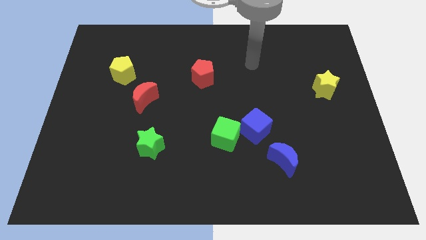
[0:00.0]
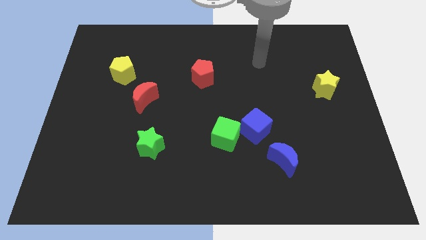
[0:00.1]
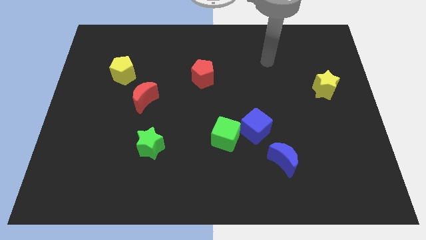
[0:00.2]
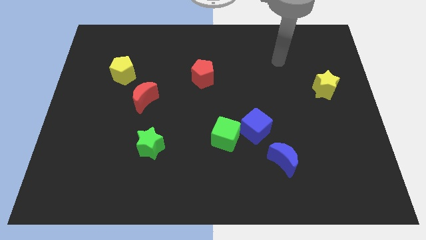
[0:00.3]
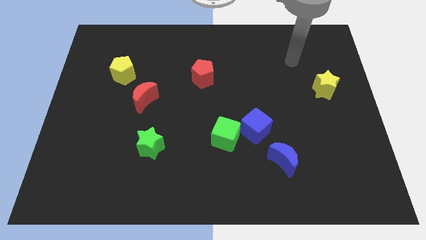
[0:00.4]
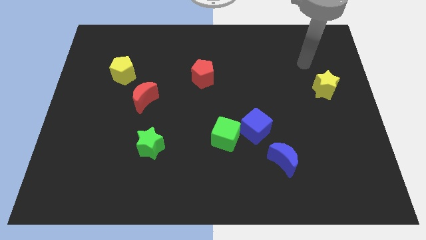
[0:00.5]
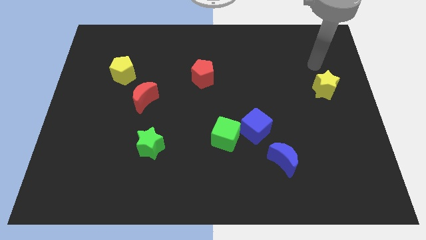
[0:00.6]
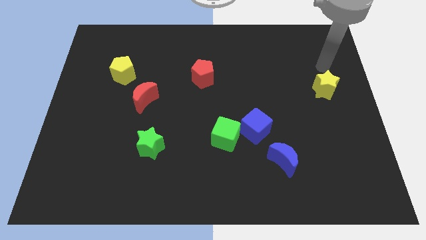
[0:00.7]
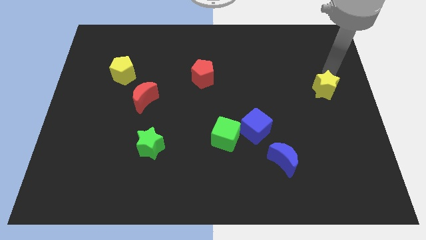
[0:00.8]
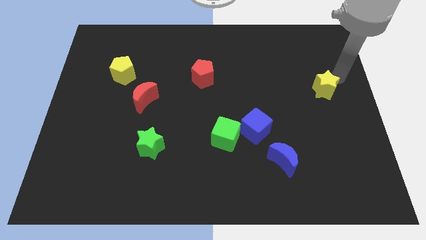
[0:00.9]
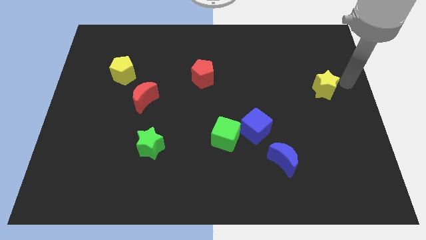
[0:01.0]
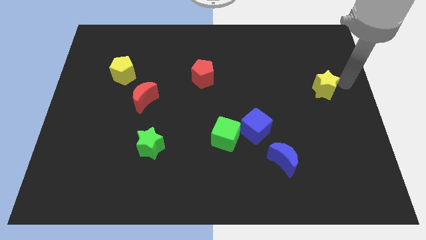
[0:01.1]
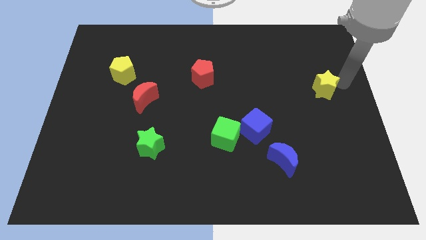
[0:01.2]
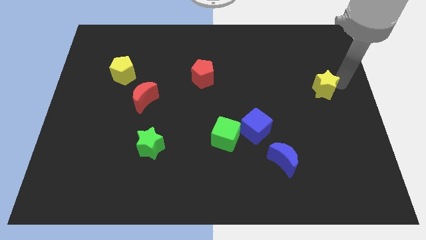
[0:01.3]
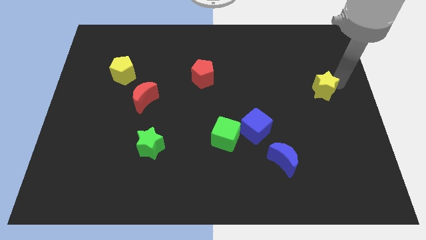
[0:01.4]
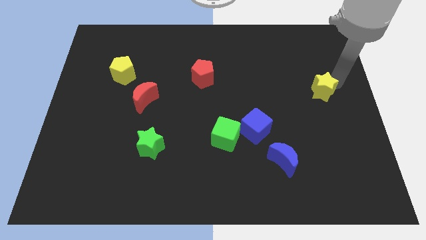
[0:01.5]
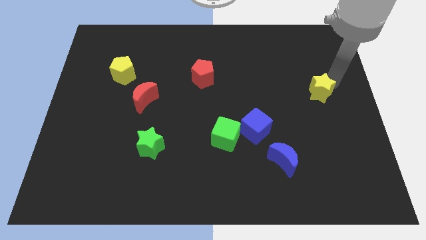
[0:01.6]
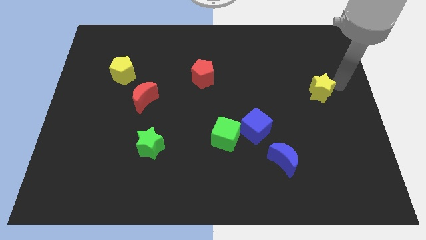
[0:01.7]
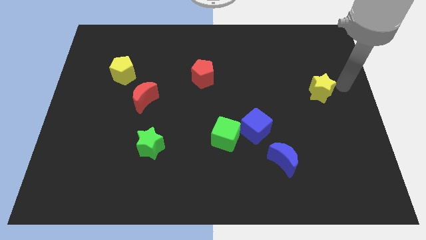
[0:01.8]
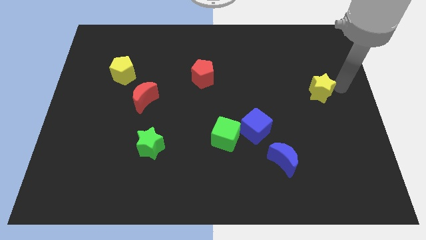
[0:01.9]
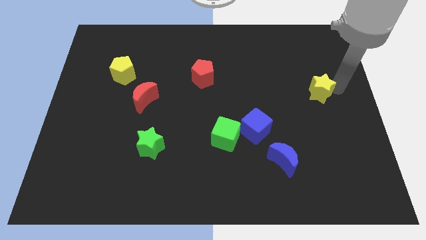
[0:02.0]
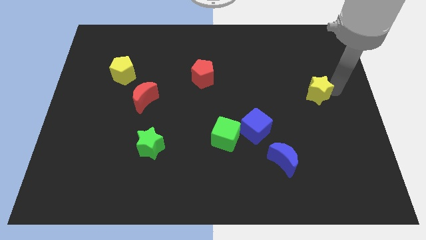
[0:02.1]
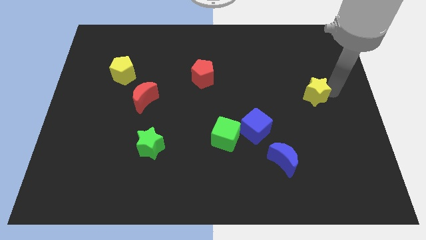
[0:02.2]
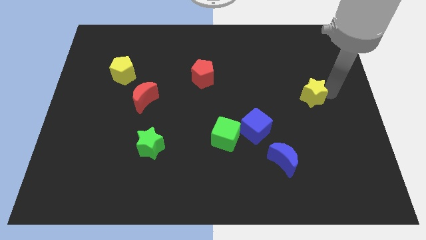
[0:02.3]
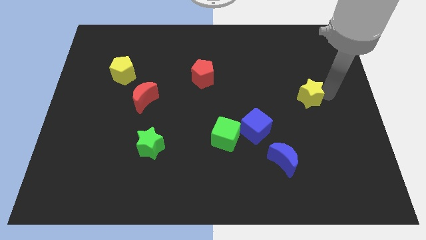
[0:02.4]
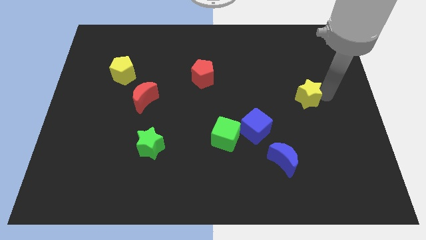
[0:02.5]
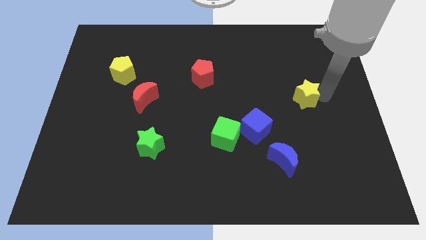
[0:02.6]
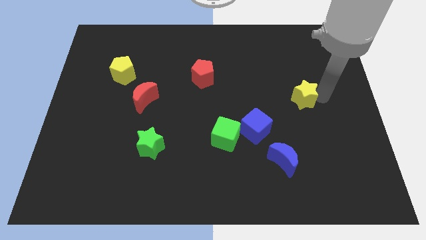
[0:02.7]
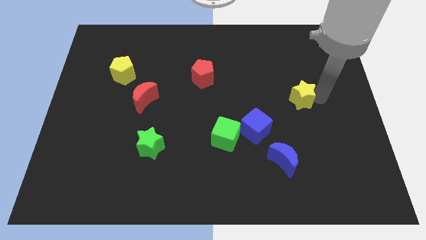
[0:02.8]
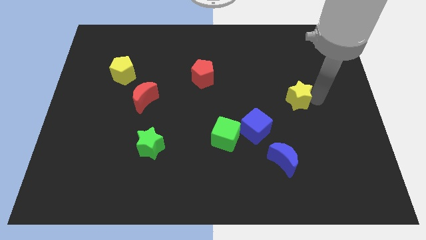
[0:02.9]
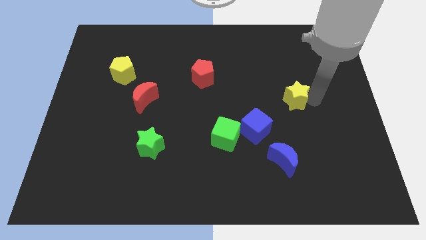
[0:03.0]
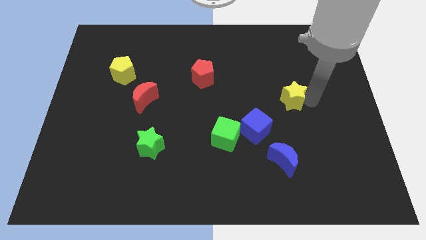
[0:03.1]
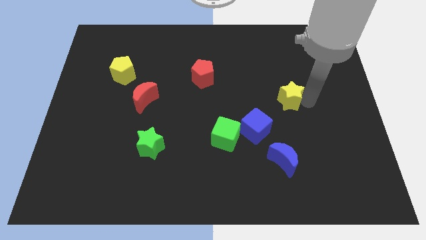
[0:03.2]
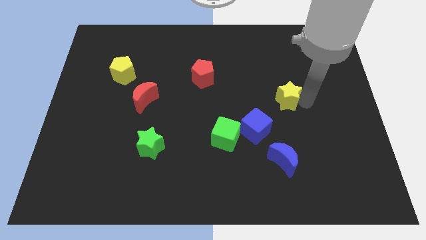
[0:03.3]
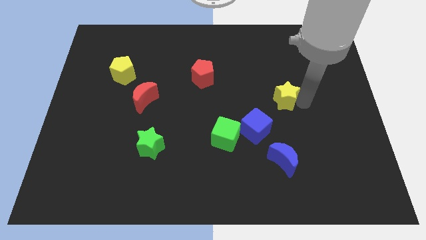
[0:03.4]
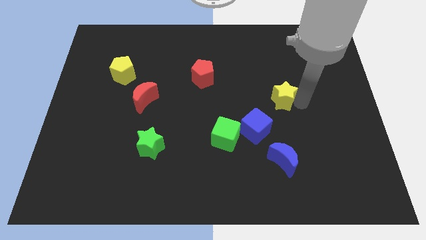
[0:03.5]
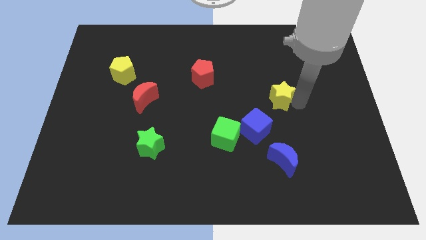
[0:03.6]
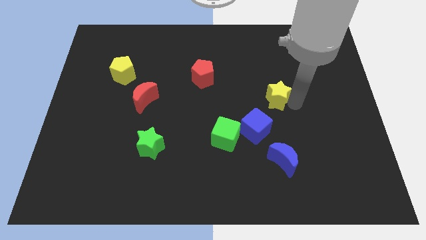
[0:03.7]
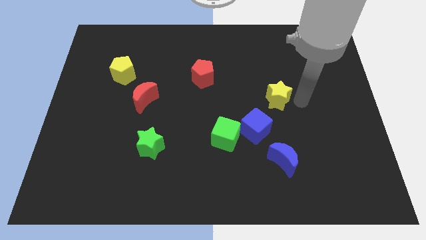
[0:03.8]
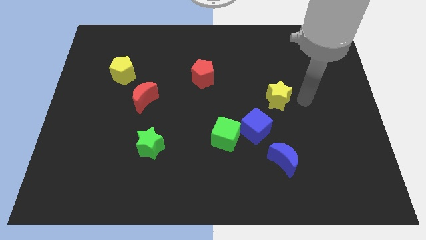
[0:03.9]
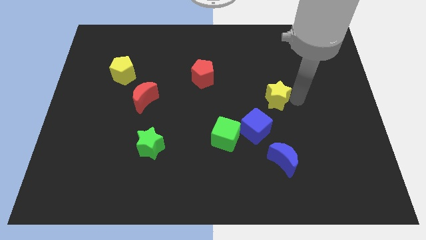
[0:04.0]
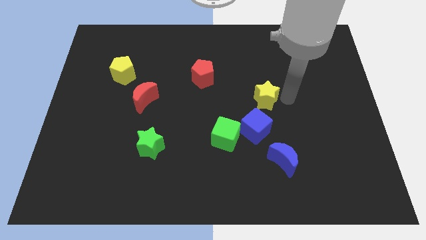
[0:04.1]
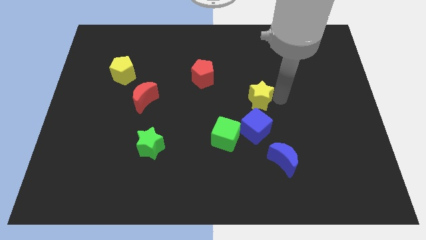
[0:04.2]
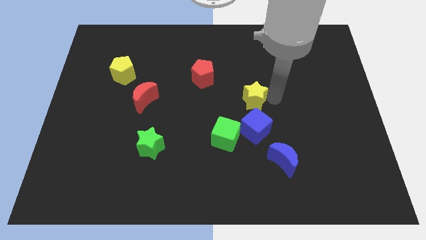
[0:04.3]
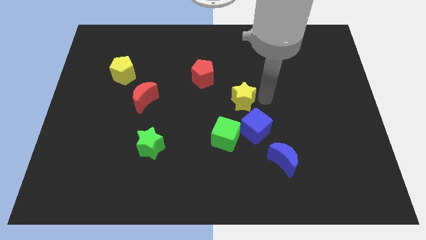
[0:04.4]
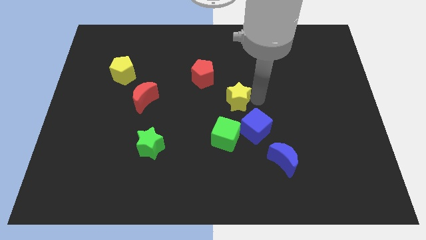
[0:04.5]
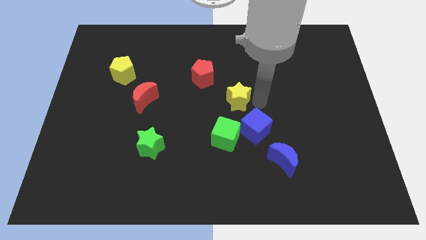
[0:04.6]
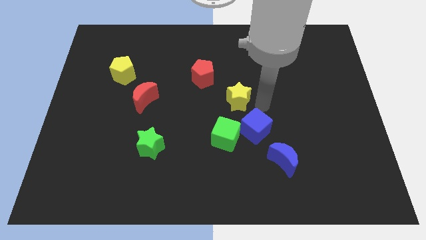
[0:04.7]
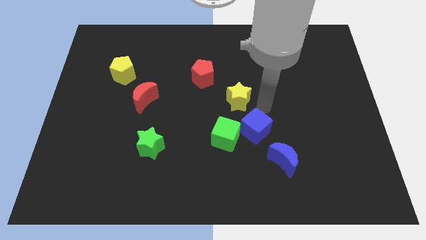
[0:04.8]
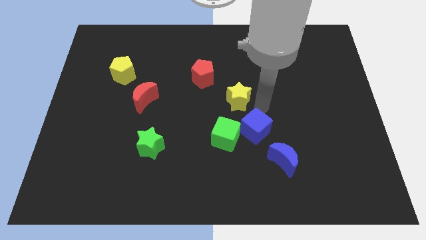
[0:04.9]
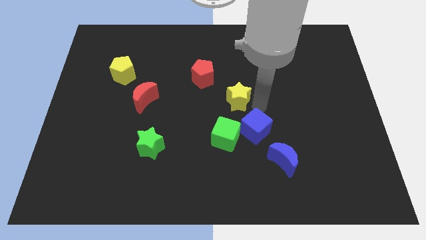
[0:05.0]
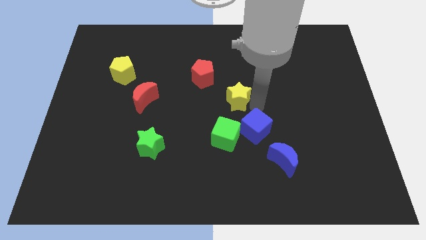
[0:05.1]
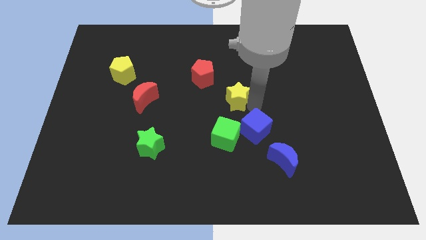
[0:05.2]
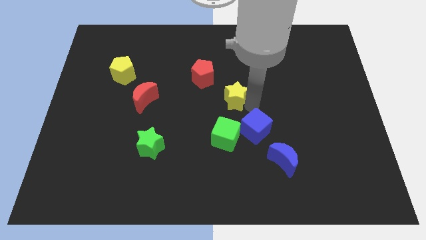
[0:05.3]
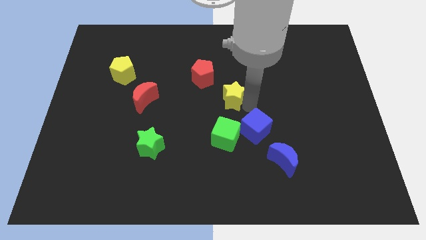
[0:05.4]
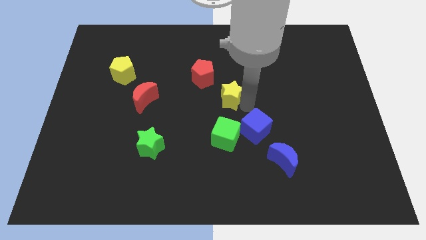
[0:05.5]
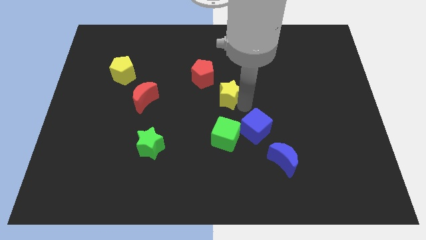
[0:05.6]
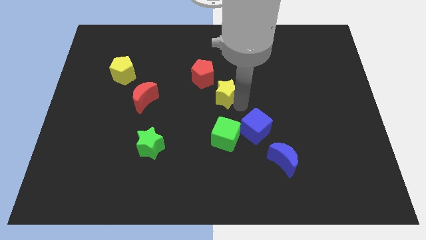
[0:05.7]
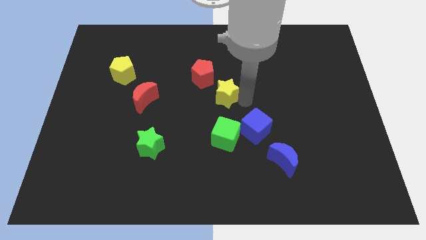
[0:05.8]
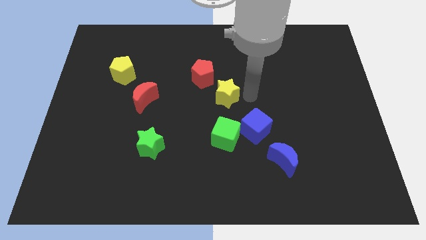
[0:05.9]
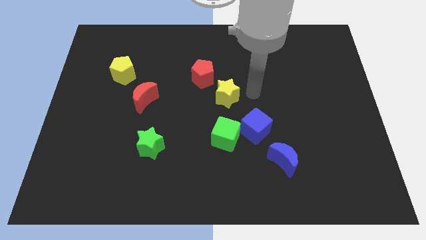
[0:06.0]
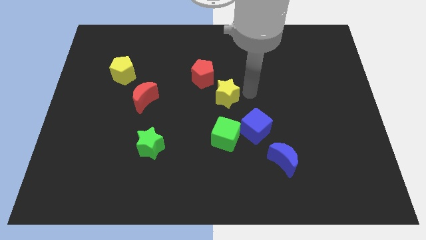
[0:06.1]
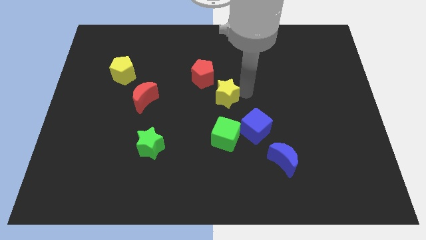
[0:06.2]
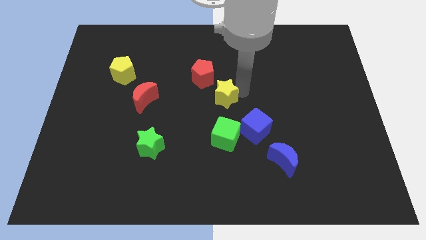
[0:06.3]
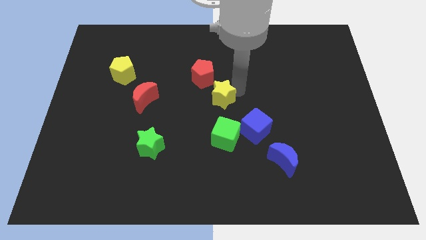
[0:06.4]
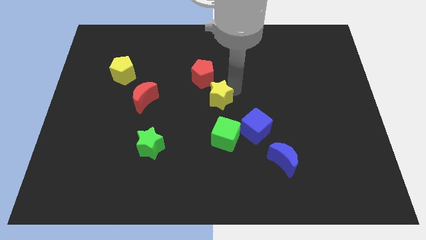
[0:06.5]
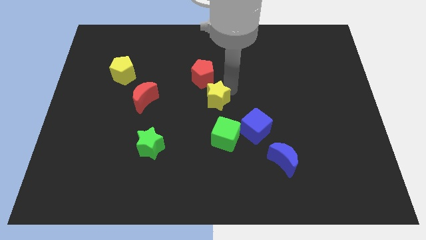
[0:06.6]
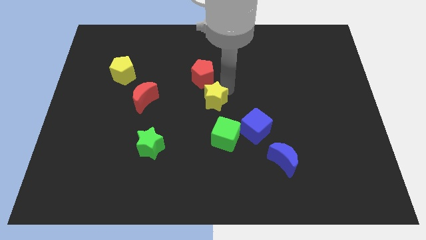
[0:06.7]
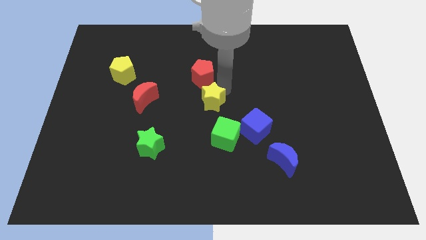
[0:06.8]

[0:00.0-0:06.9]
put the yellow star just right of the red moon
